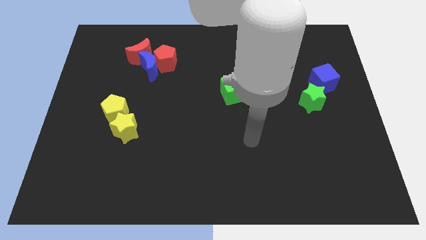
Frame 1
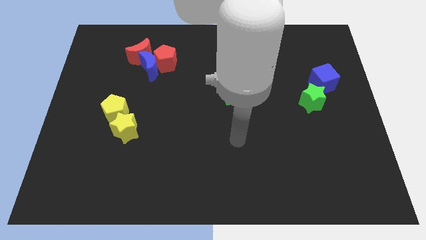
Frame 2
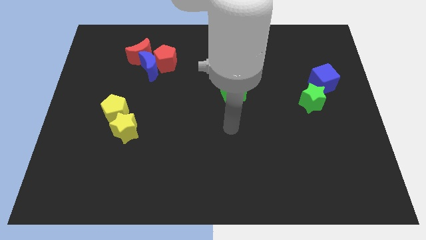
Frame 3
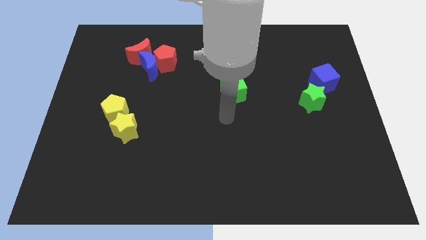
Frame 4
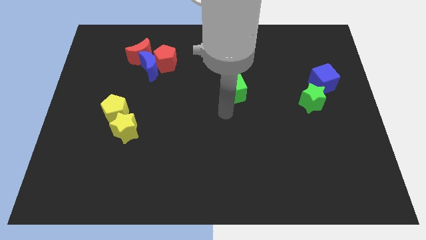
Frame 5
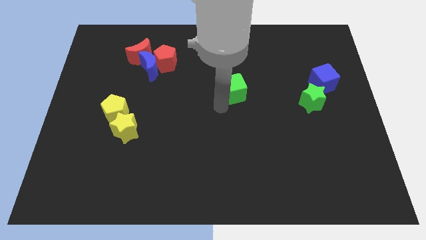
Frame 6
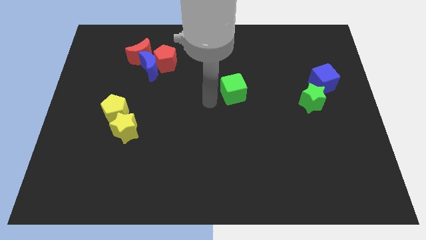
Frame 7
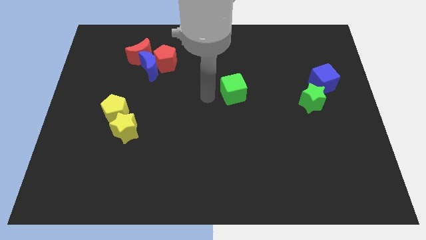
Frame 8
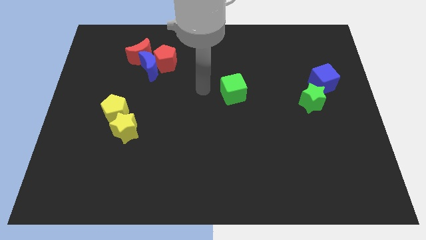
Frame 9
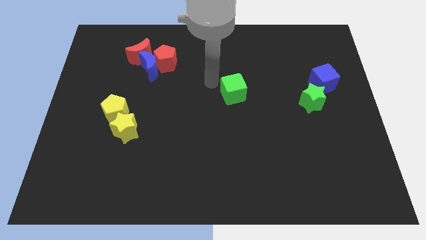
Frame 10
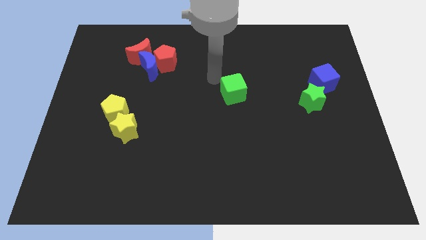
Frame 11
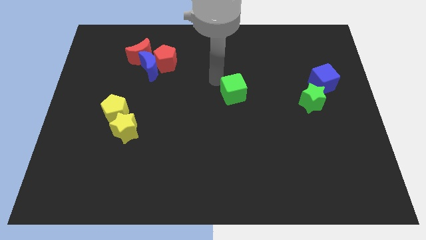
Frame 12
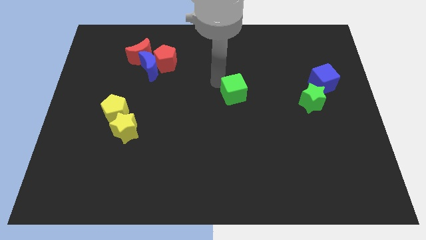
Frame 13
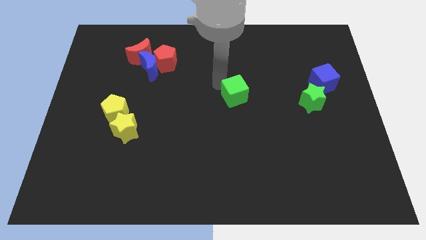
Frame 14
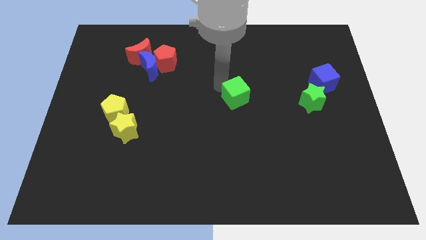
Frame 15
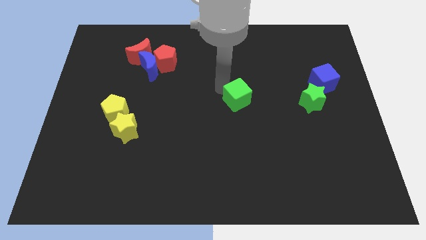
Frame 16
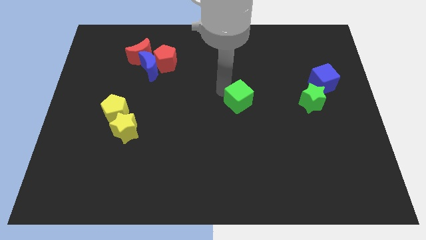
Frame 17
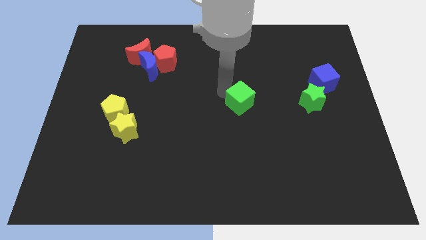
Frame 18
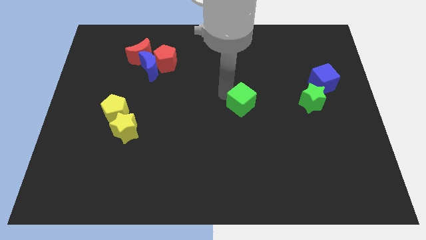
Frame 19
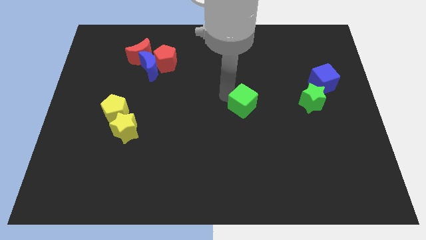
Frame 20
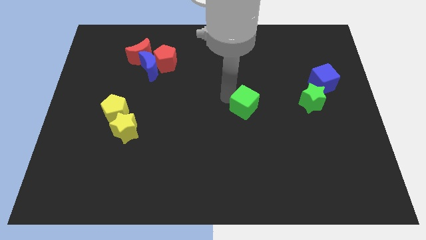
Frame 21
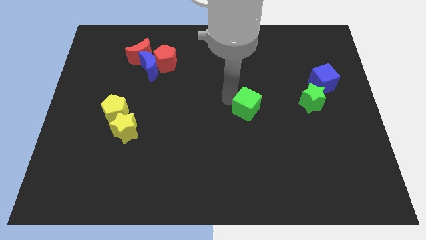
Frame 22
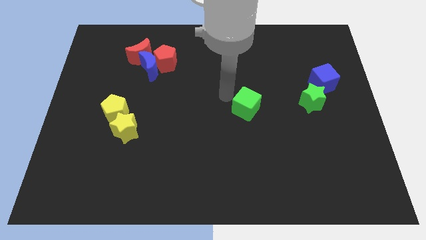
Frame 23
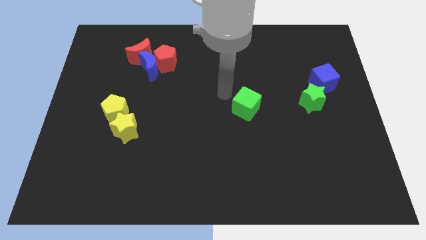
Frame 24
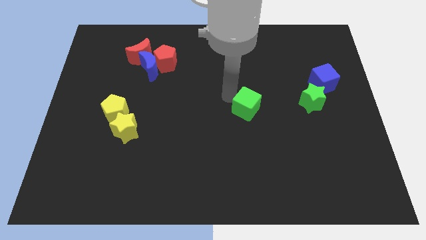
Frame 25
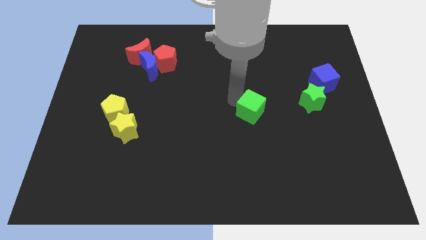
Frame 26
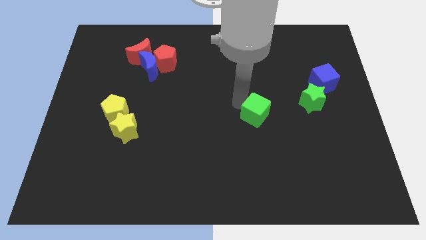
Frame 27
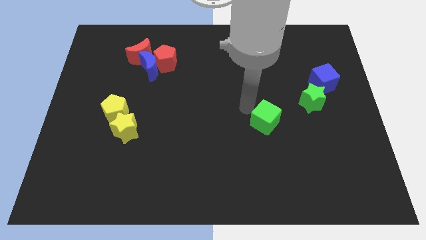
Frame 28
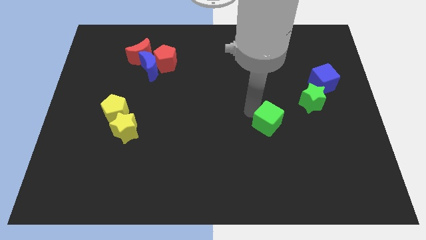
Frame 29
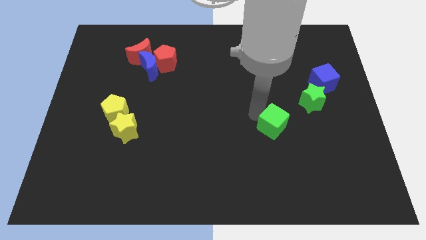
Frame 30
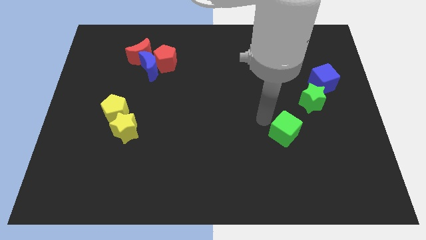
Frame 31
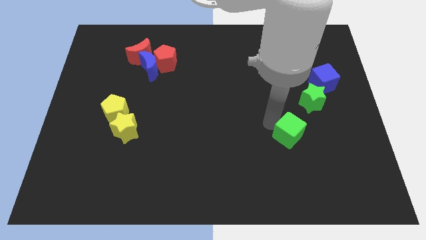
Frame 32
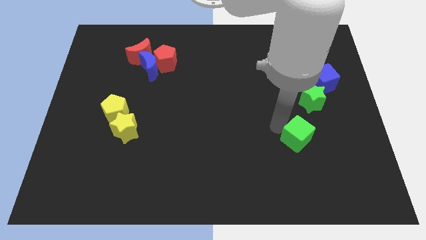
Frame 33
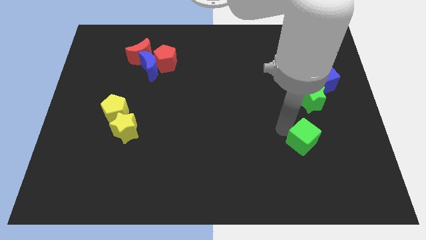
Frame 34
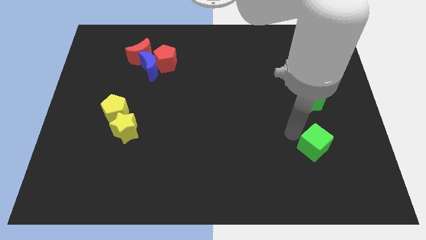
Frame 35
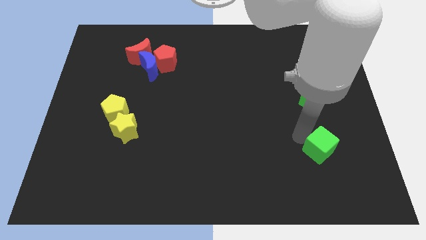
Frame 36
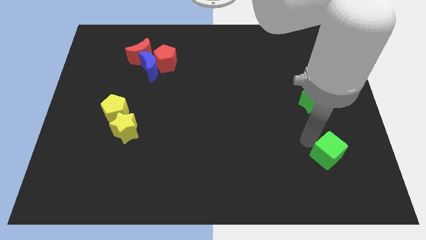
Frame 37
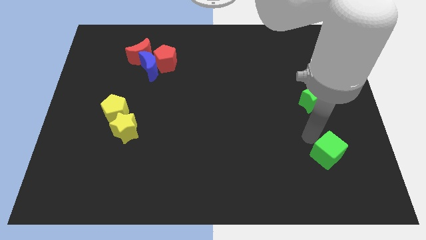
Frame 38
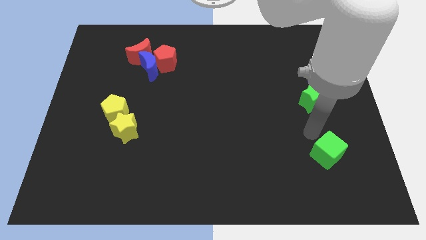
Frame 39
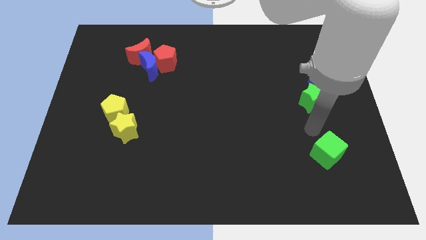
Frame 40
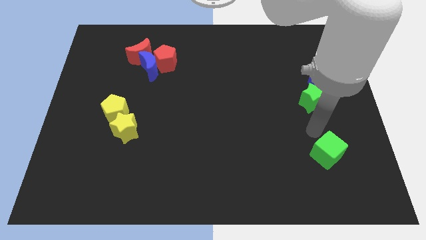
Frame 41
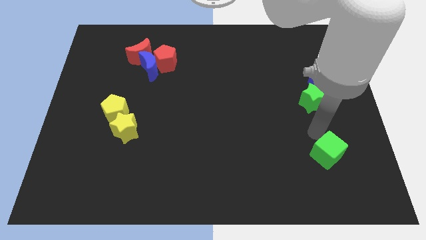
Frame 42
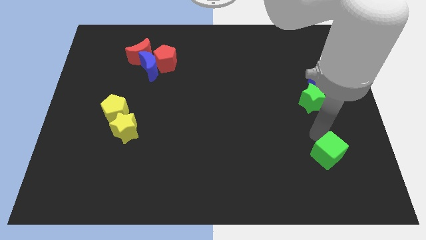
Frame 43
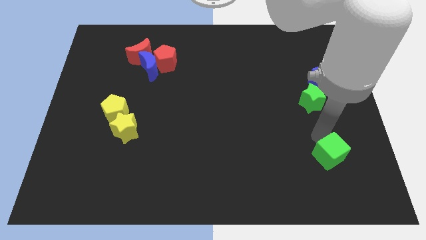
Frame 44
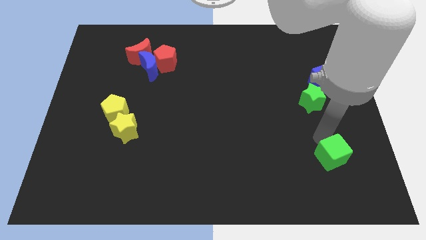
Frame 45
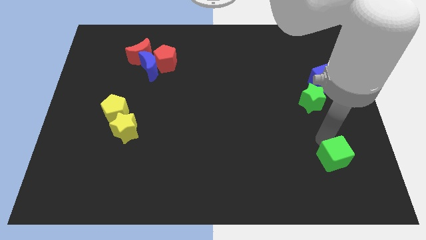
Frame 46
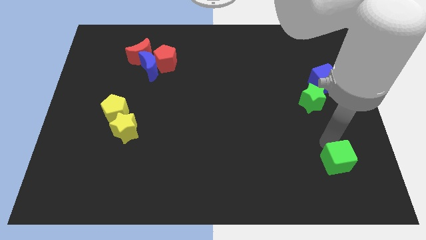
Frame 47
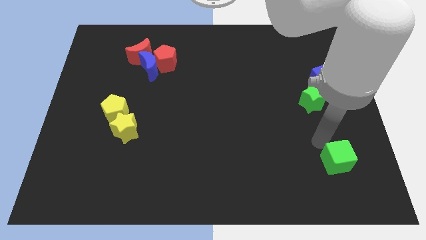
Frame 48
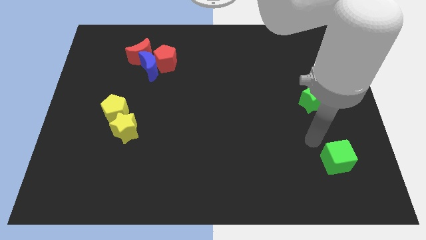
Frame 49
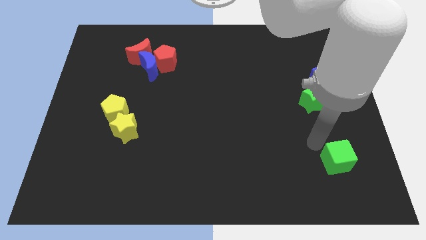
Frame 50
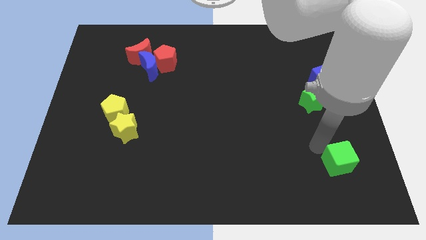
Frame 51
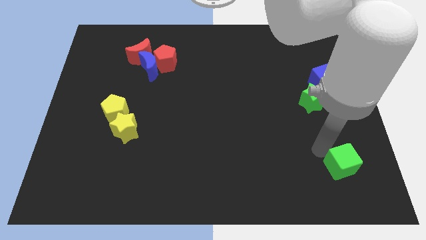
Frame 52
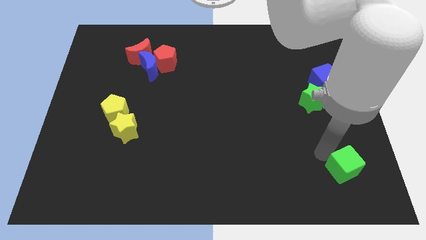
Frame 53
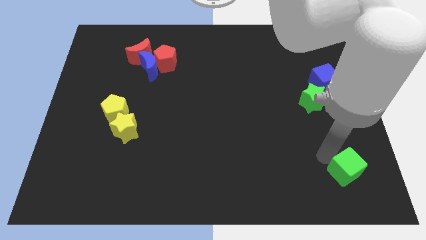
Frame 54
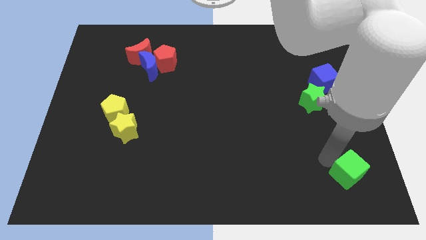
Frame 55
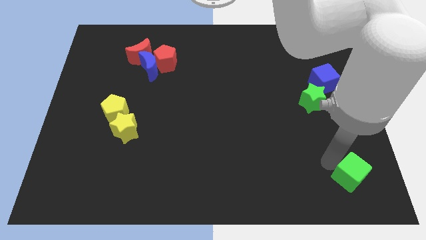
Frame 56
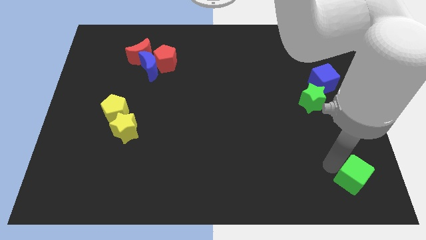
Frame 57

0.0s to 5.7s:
move the green cube to the lower right corner

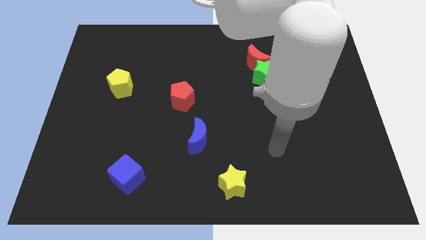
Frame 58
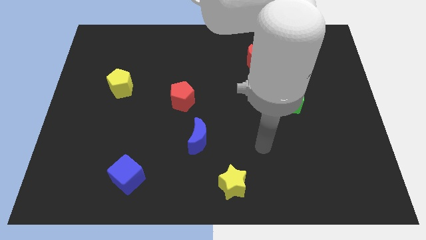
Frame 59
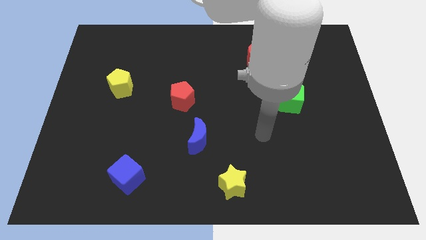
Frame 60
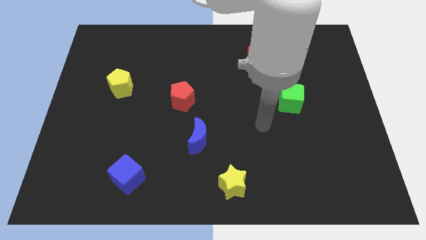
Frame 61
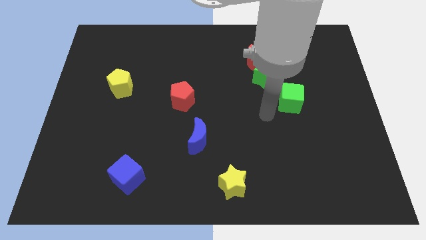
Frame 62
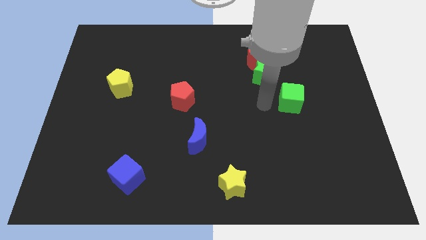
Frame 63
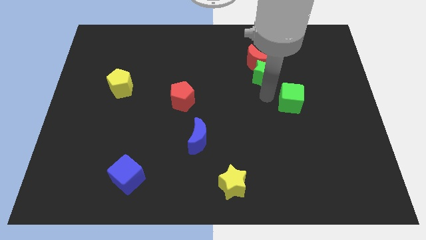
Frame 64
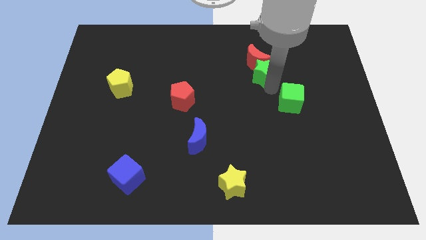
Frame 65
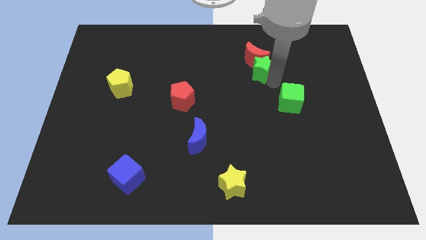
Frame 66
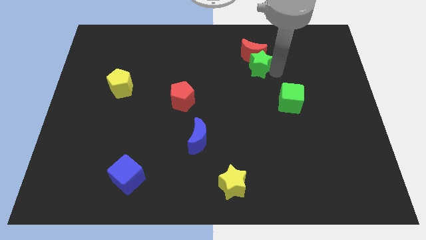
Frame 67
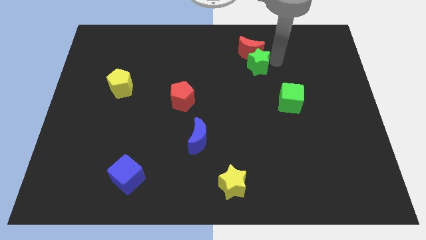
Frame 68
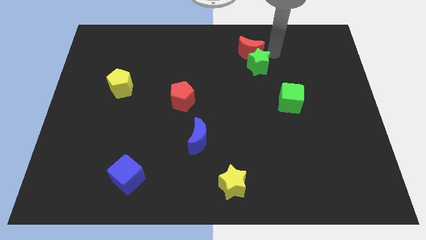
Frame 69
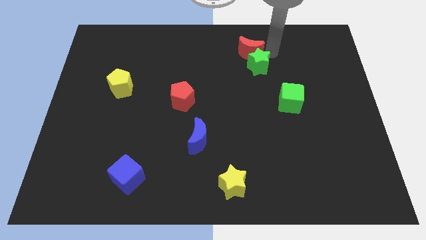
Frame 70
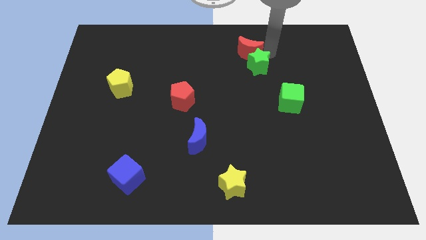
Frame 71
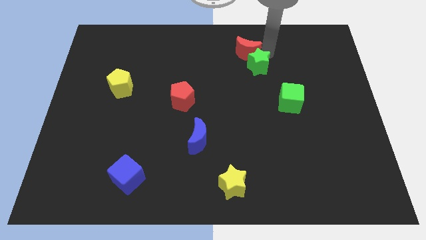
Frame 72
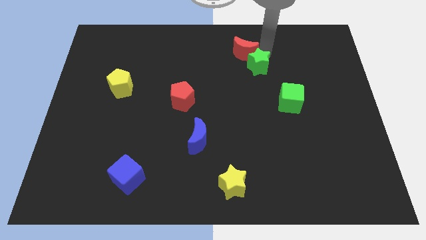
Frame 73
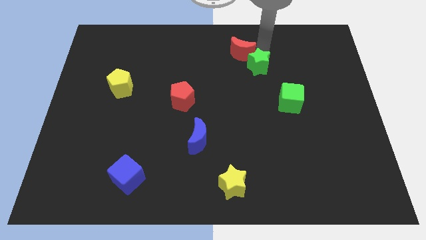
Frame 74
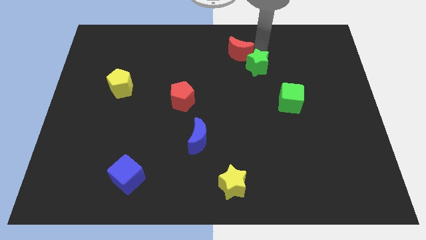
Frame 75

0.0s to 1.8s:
slide the red moon to the top side
